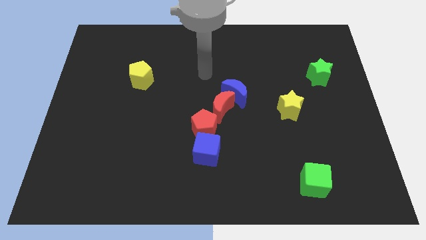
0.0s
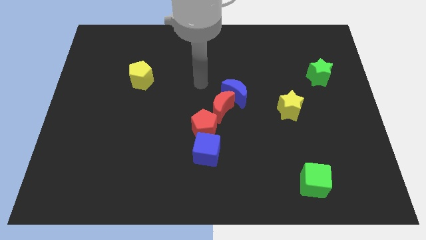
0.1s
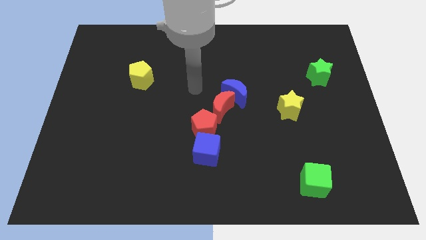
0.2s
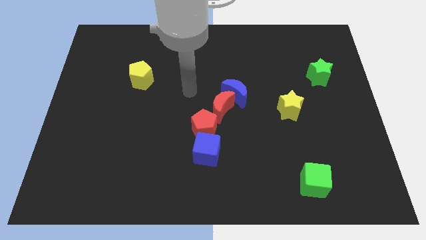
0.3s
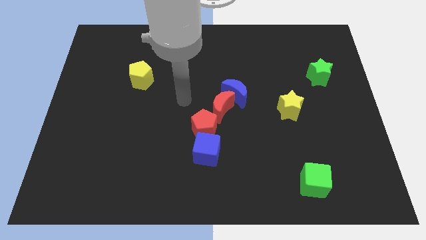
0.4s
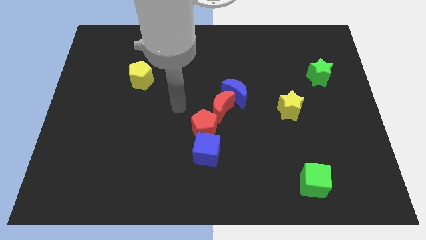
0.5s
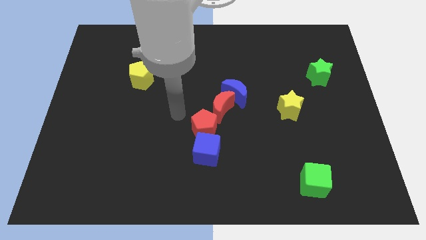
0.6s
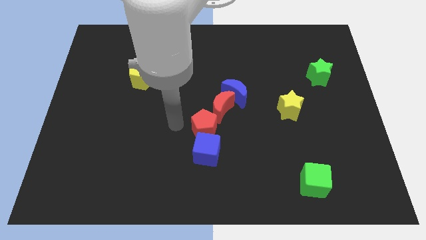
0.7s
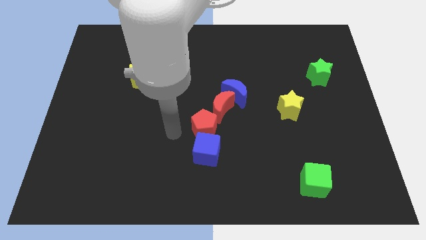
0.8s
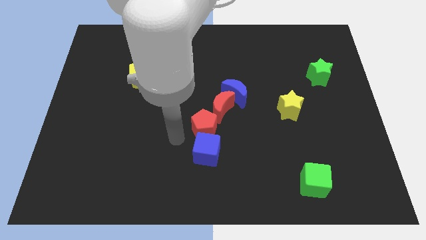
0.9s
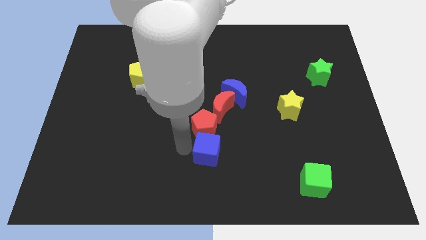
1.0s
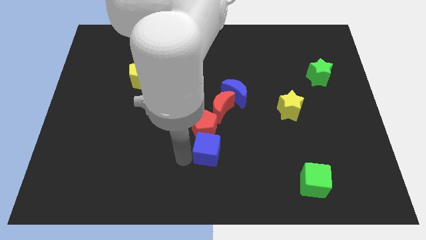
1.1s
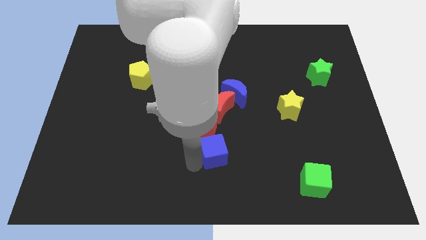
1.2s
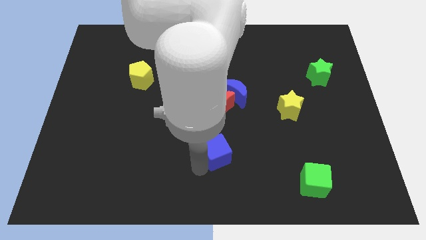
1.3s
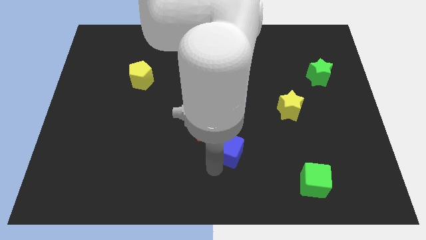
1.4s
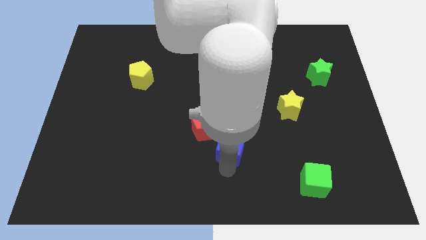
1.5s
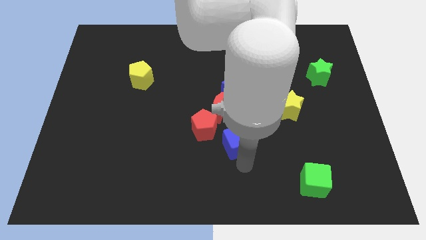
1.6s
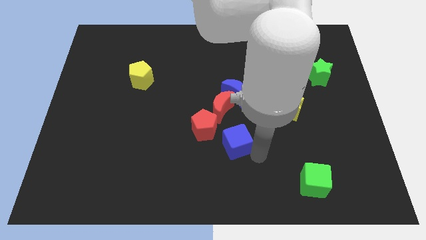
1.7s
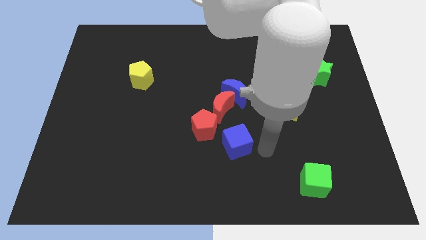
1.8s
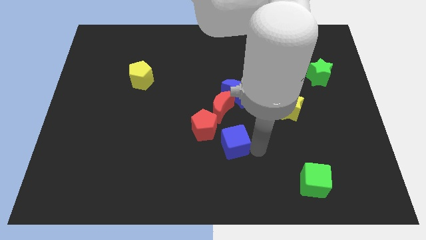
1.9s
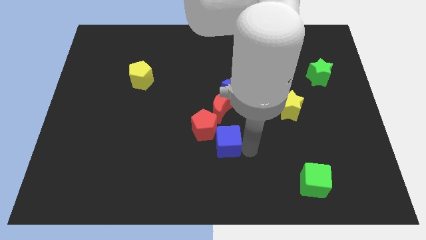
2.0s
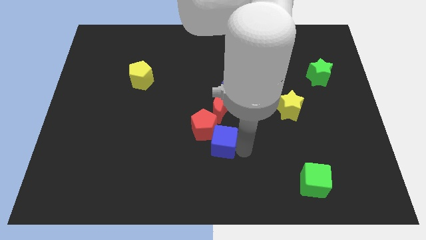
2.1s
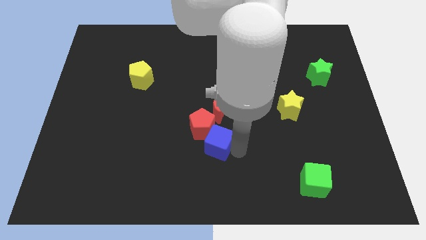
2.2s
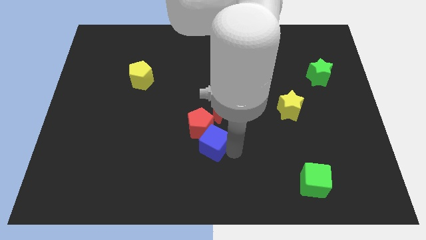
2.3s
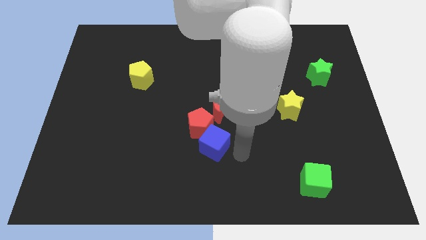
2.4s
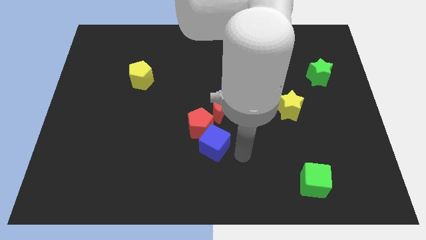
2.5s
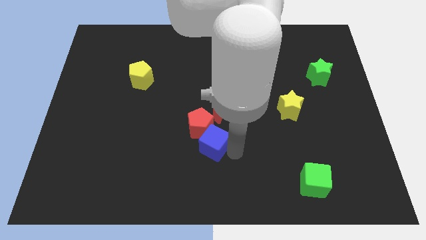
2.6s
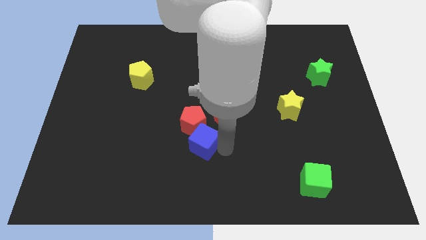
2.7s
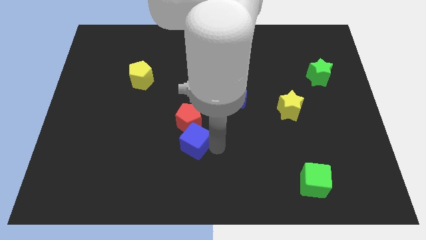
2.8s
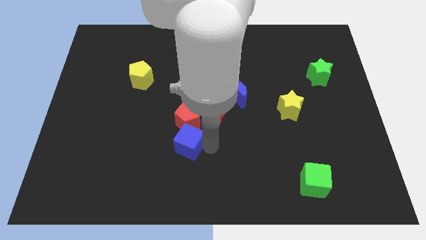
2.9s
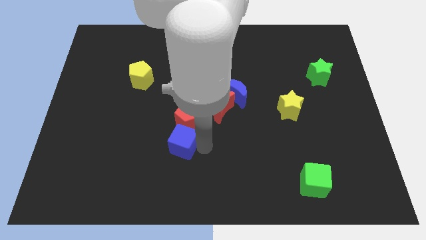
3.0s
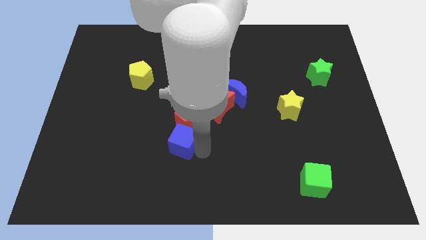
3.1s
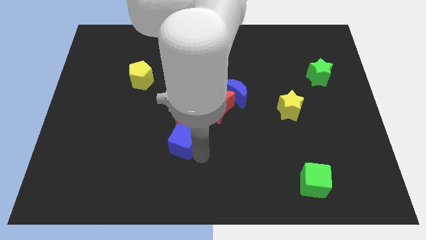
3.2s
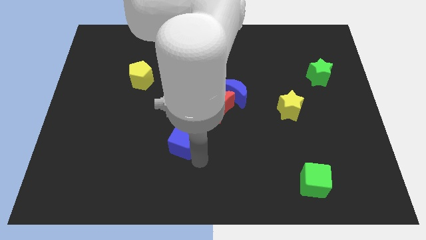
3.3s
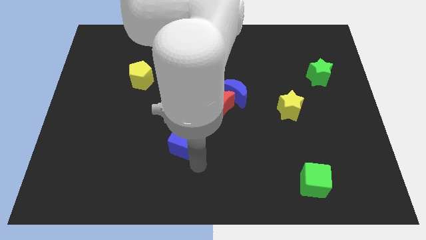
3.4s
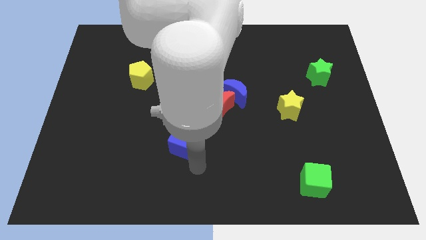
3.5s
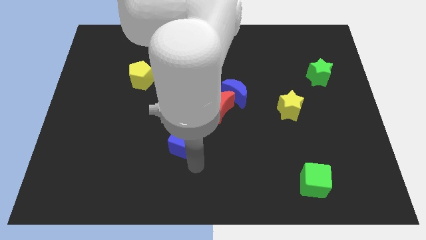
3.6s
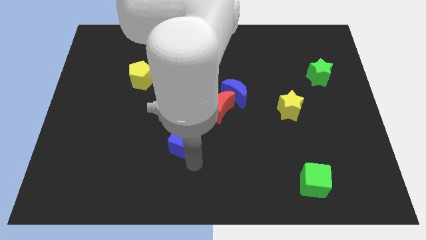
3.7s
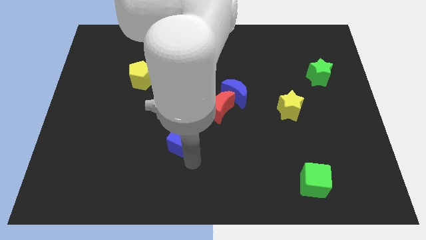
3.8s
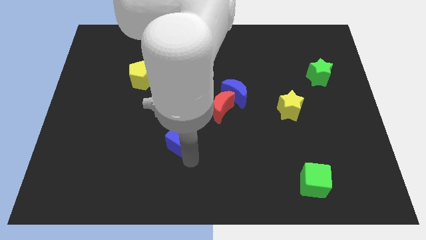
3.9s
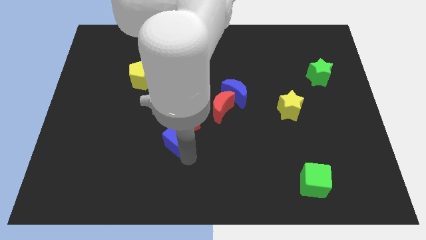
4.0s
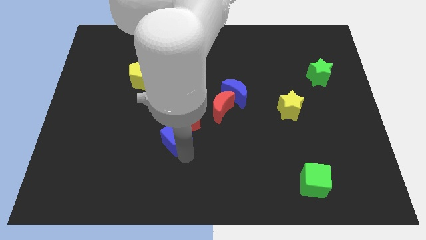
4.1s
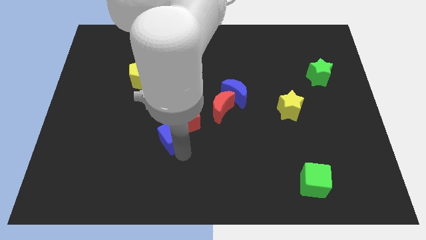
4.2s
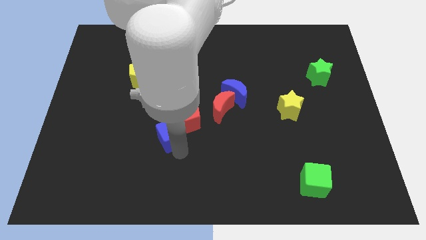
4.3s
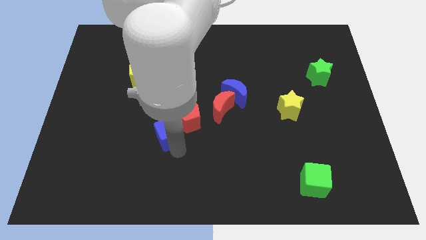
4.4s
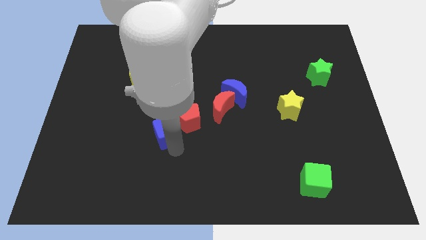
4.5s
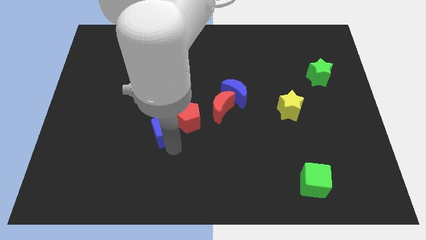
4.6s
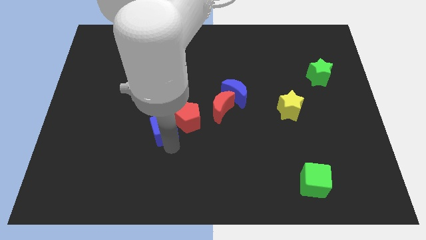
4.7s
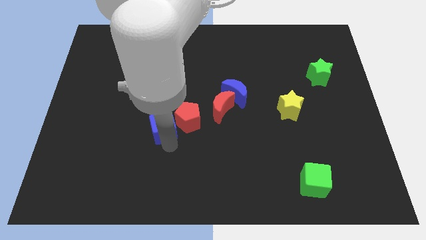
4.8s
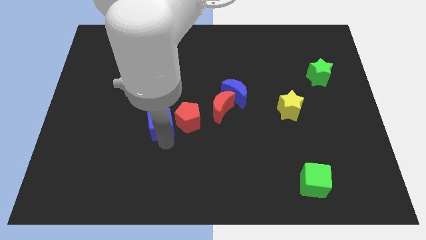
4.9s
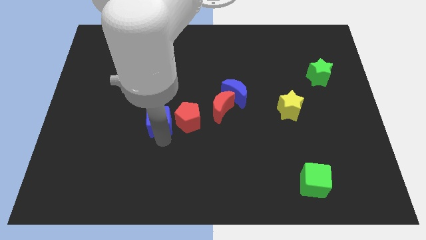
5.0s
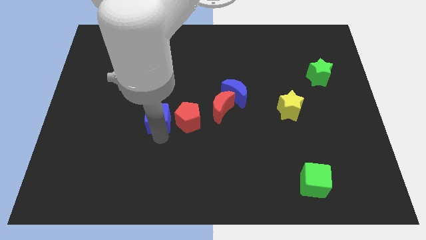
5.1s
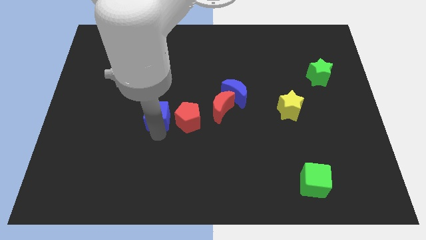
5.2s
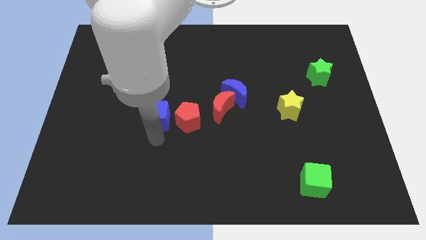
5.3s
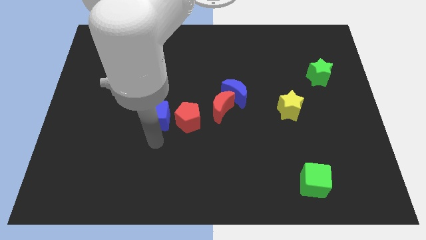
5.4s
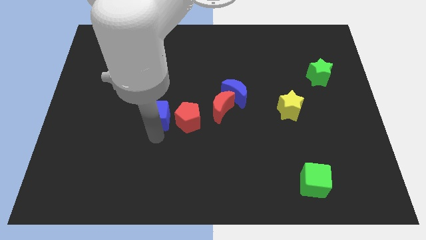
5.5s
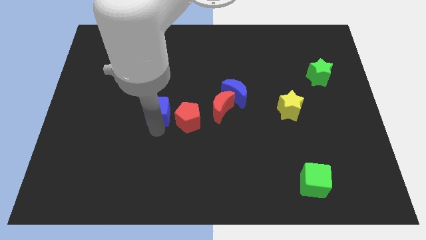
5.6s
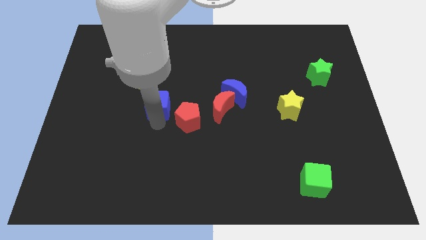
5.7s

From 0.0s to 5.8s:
put the blue cube diagonally down and to the right of the yellow pentagon

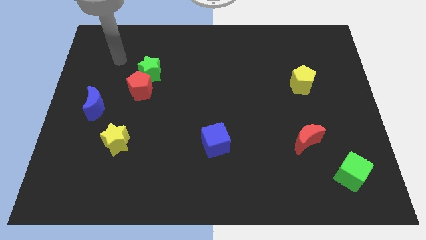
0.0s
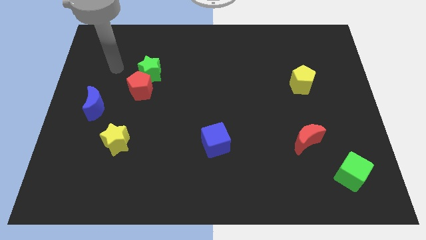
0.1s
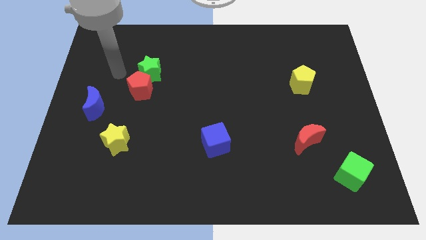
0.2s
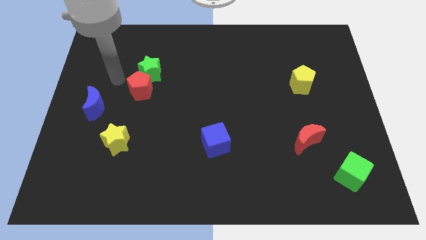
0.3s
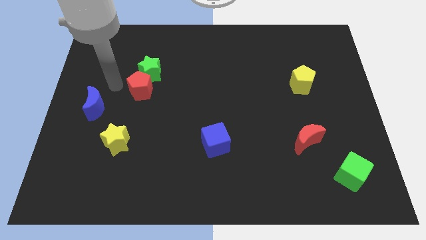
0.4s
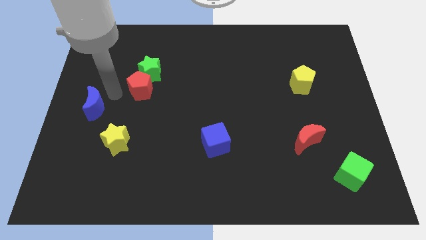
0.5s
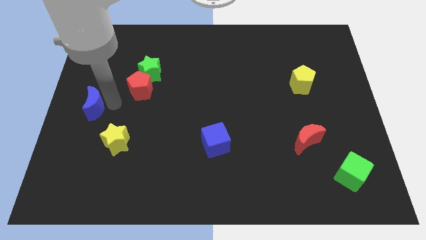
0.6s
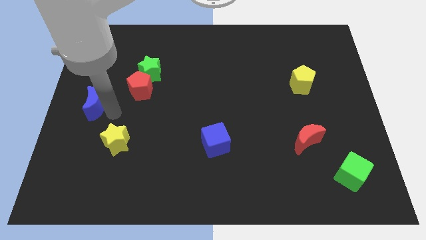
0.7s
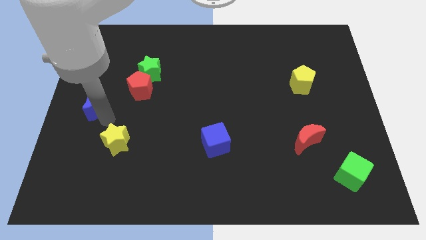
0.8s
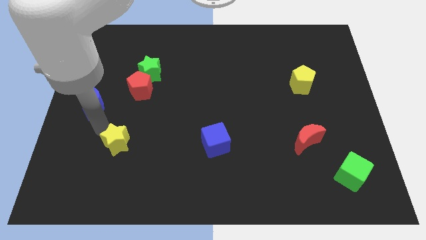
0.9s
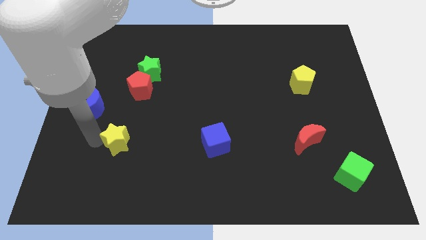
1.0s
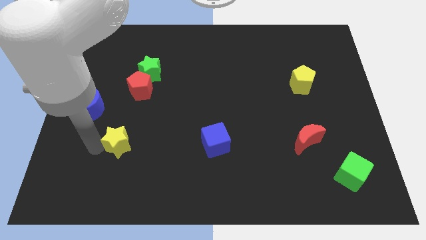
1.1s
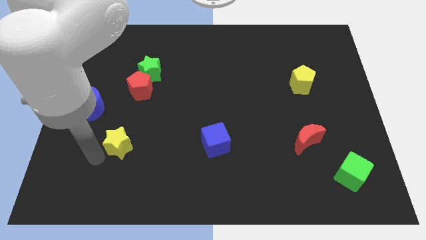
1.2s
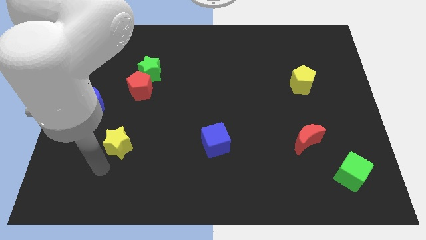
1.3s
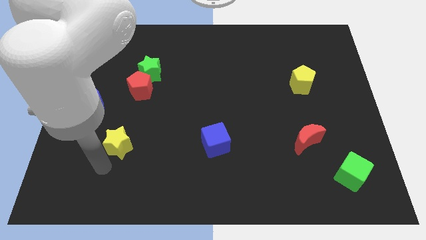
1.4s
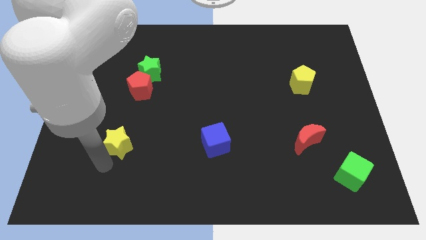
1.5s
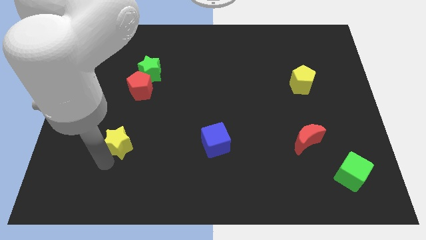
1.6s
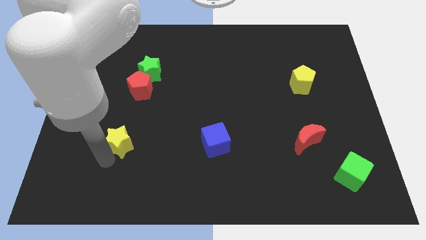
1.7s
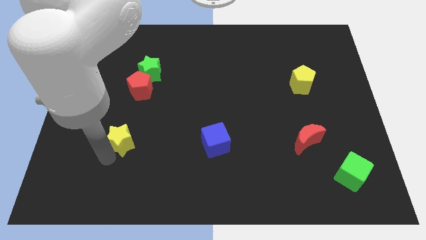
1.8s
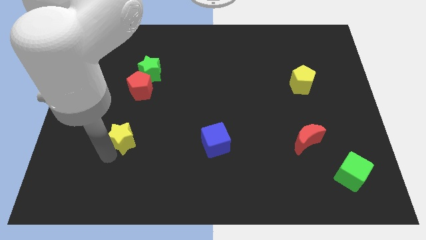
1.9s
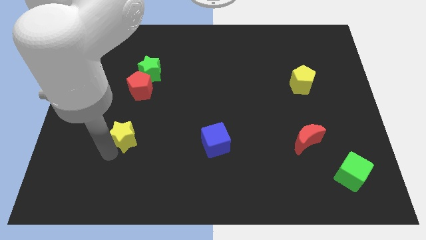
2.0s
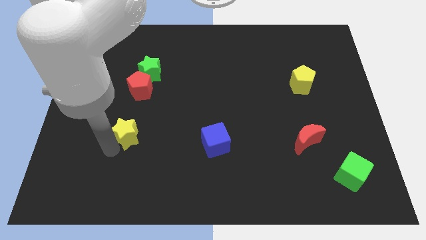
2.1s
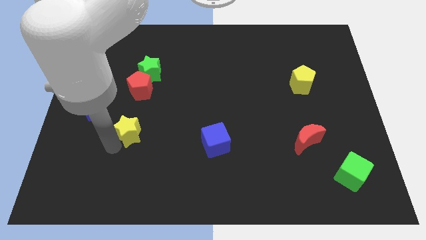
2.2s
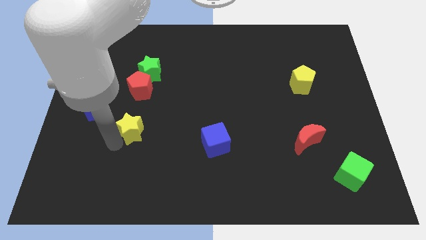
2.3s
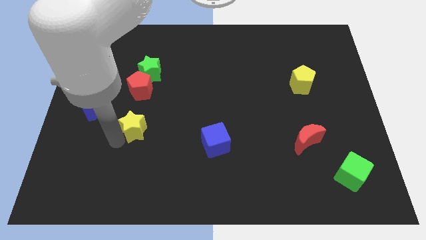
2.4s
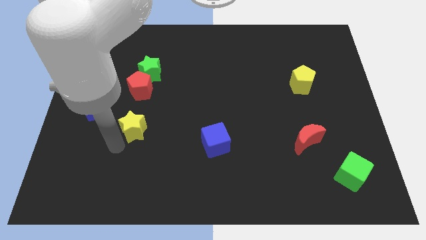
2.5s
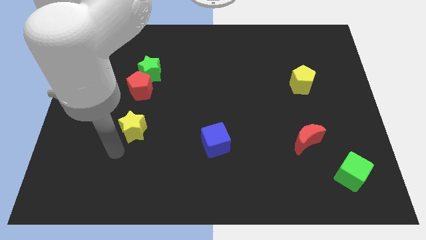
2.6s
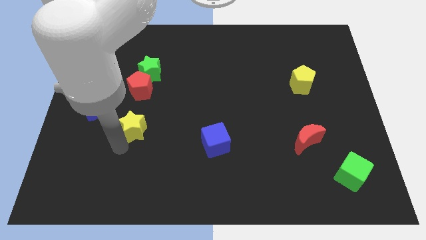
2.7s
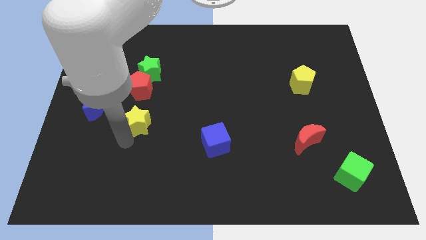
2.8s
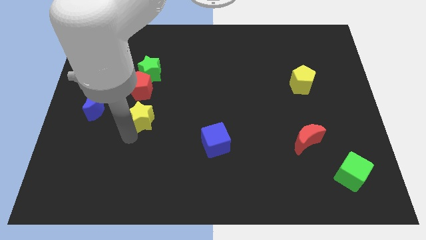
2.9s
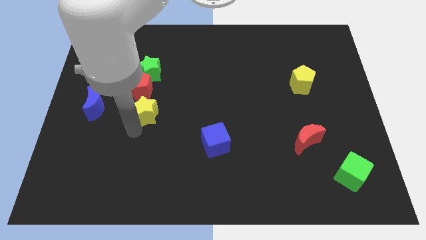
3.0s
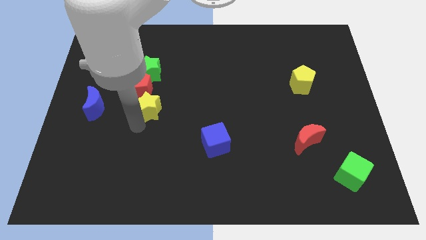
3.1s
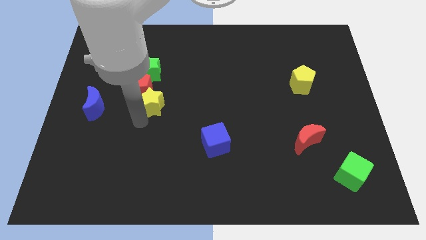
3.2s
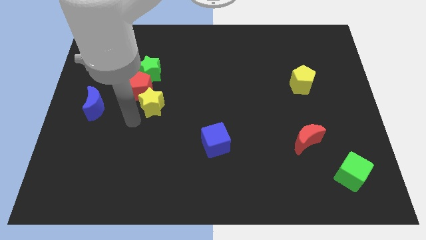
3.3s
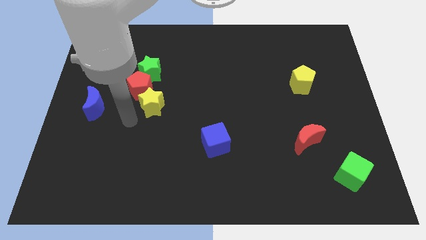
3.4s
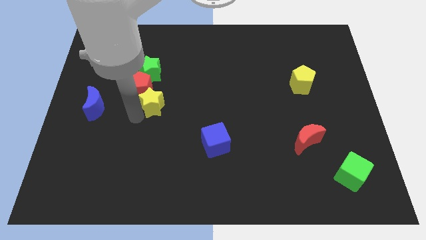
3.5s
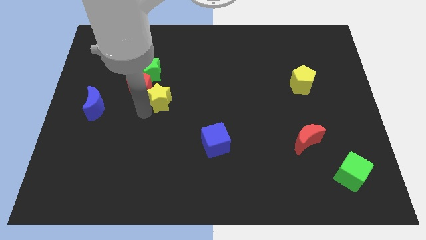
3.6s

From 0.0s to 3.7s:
slide the yellow star to the right side of the red pentagon
